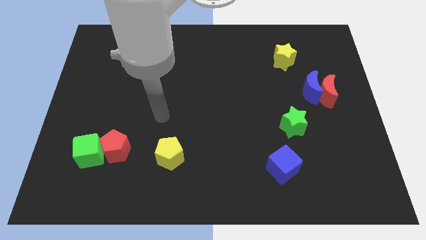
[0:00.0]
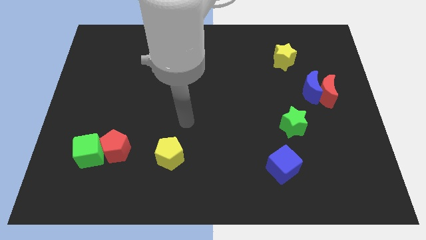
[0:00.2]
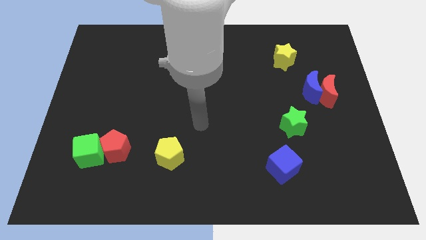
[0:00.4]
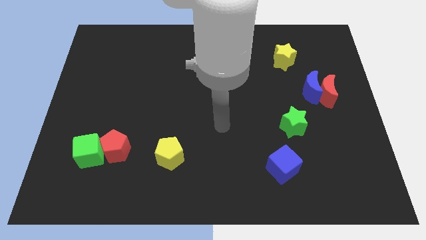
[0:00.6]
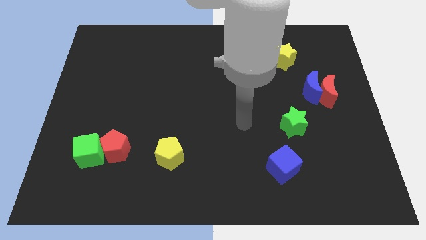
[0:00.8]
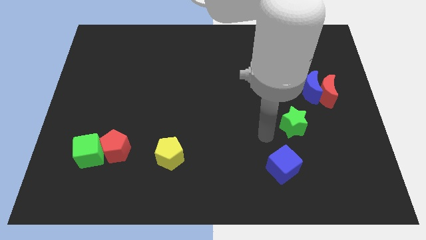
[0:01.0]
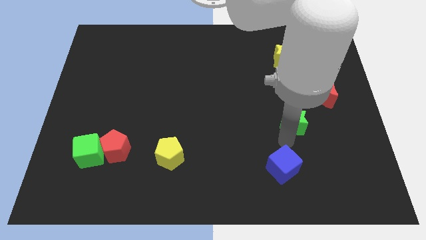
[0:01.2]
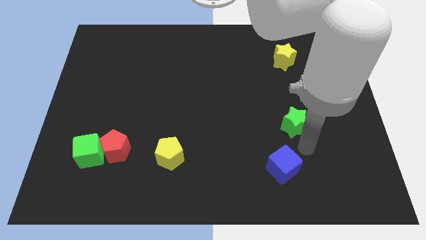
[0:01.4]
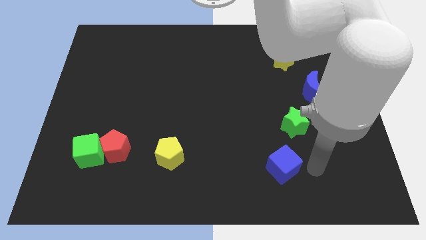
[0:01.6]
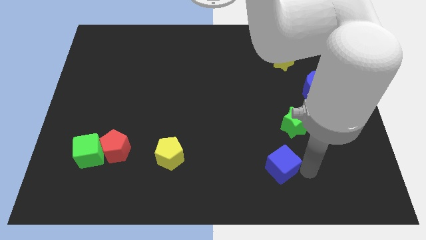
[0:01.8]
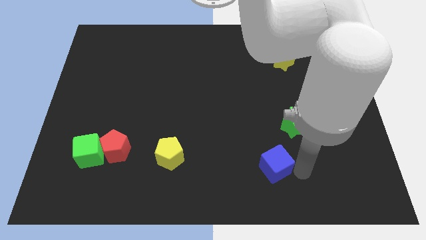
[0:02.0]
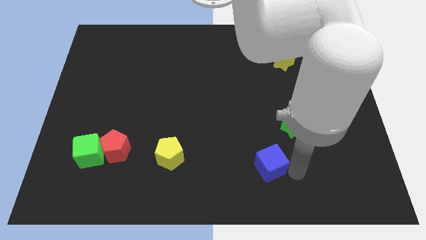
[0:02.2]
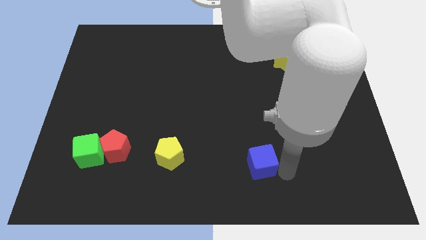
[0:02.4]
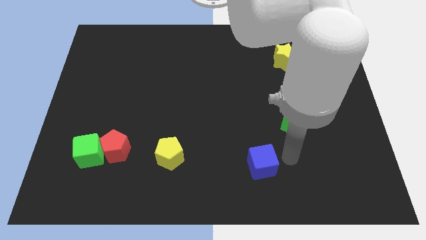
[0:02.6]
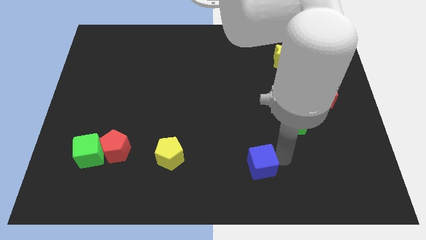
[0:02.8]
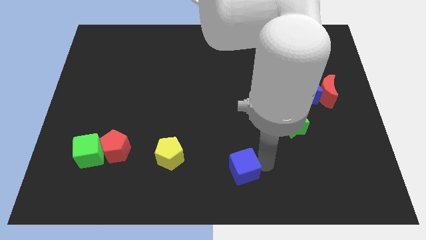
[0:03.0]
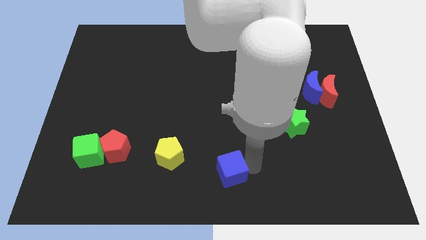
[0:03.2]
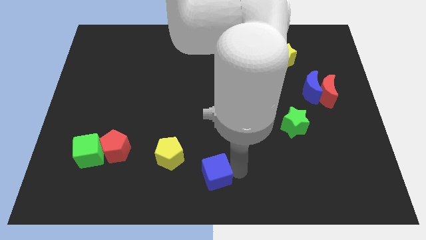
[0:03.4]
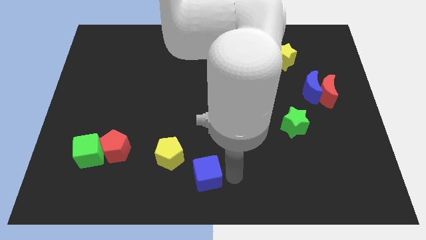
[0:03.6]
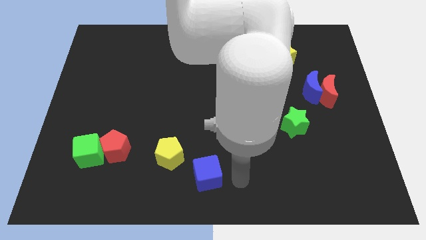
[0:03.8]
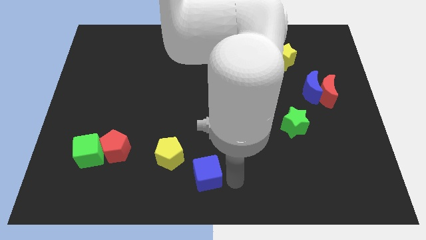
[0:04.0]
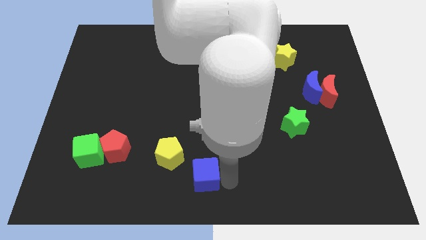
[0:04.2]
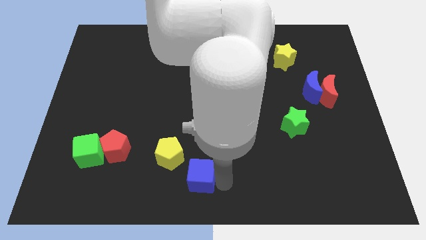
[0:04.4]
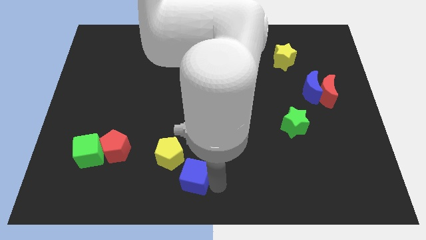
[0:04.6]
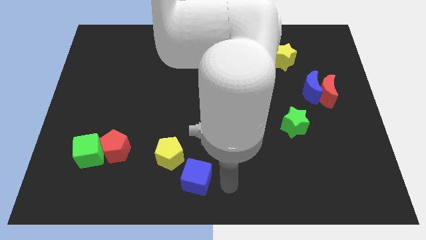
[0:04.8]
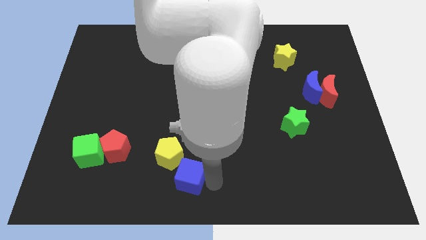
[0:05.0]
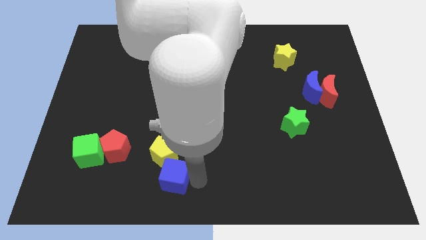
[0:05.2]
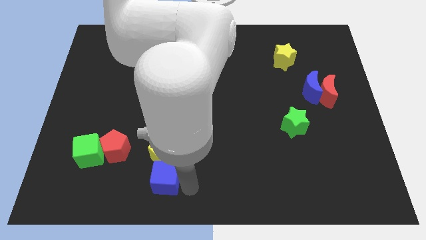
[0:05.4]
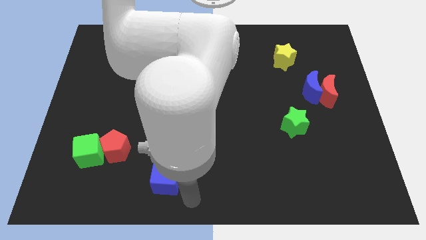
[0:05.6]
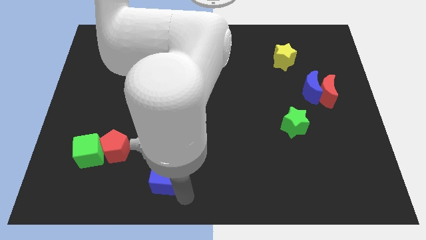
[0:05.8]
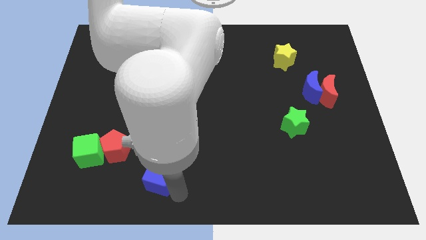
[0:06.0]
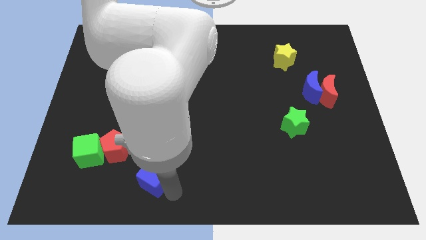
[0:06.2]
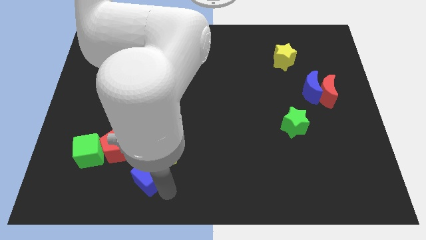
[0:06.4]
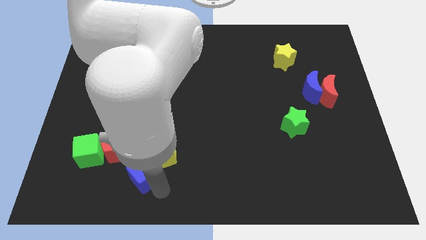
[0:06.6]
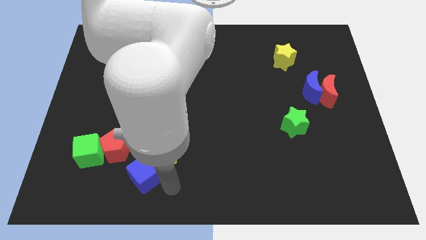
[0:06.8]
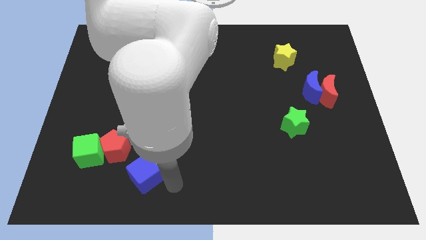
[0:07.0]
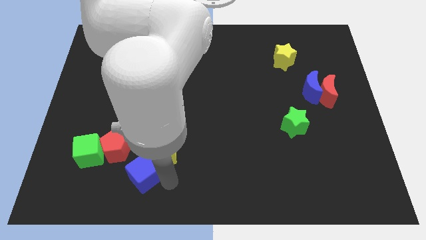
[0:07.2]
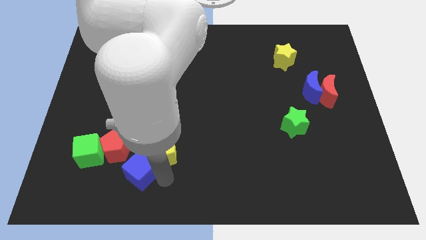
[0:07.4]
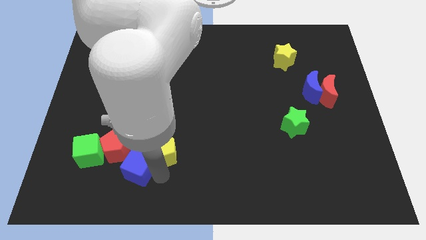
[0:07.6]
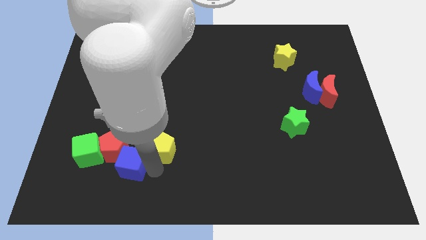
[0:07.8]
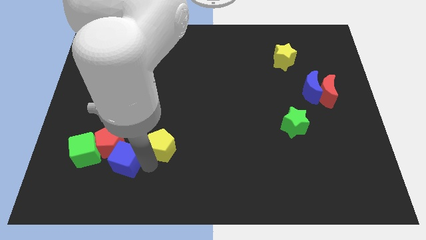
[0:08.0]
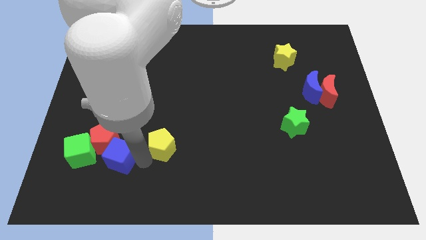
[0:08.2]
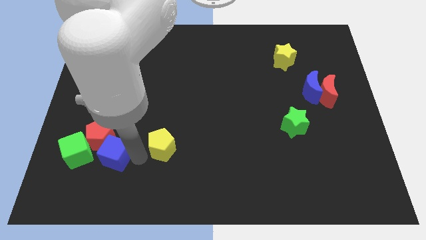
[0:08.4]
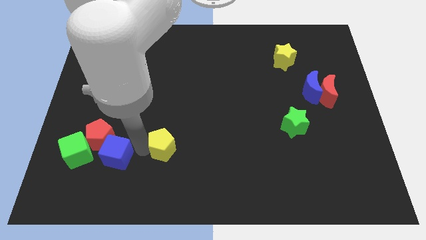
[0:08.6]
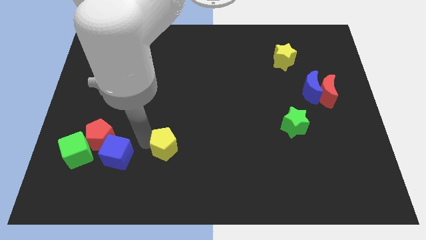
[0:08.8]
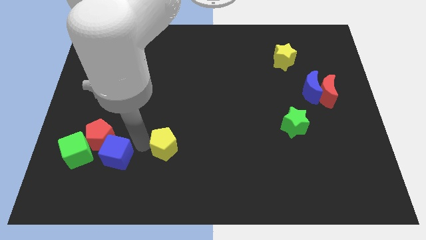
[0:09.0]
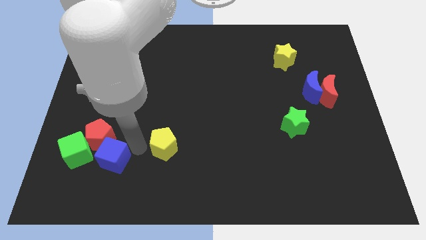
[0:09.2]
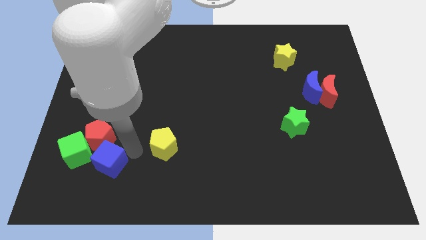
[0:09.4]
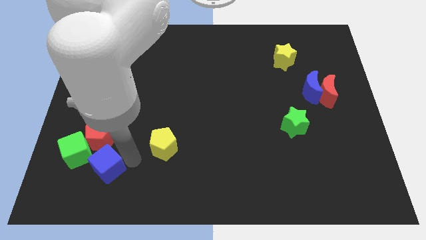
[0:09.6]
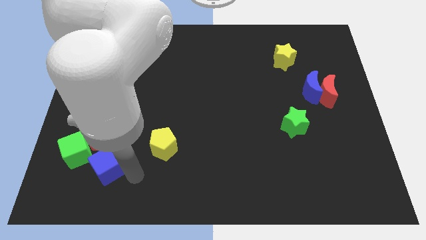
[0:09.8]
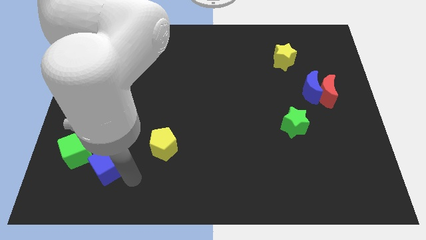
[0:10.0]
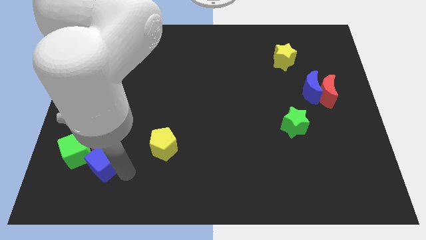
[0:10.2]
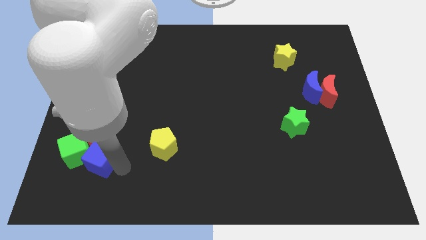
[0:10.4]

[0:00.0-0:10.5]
put the blue cube towards the green cube

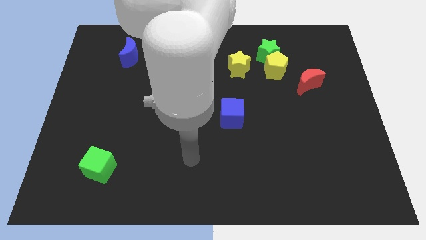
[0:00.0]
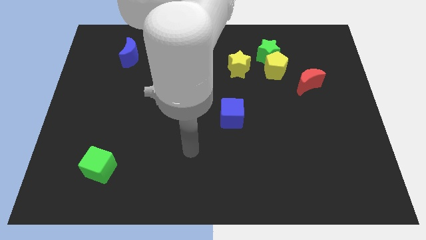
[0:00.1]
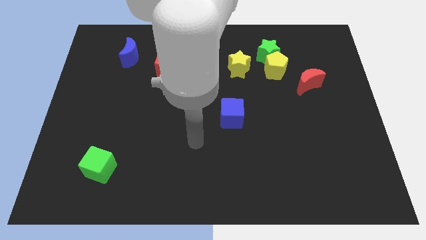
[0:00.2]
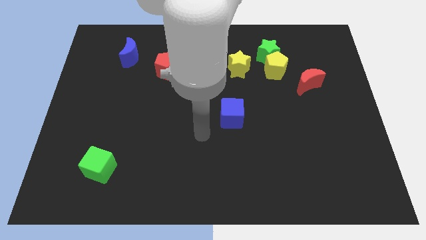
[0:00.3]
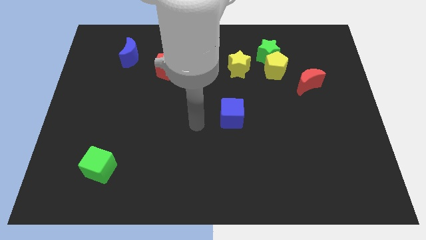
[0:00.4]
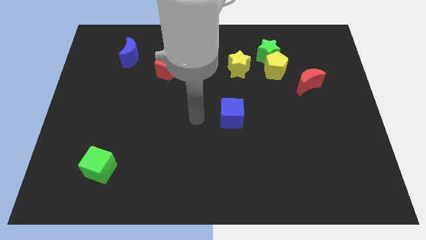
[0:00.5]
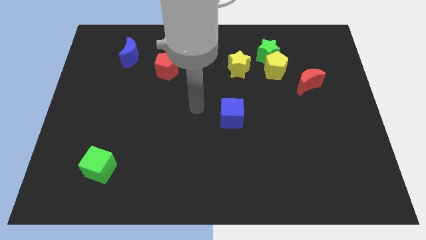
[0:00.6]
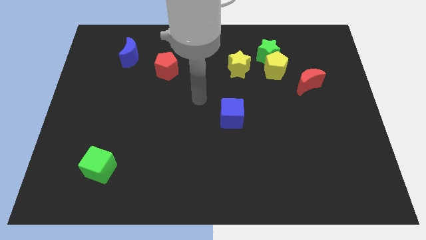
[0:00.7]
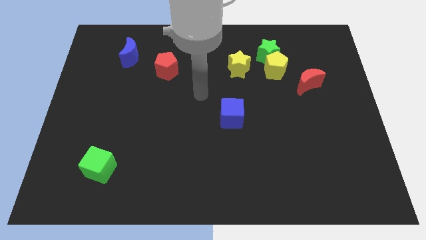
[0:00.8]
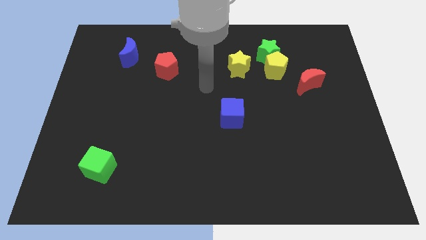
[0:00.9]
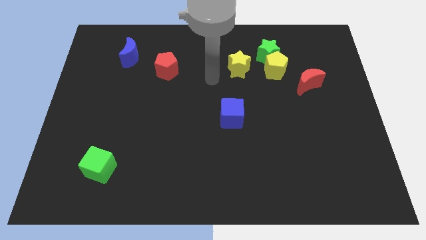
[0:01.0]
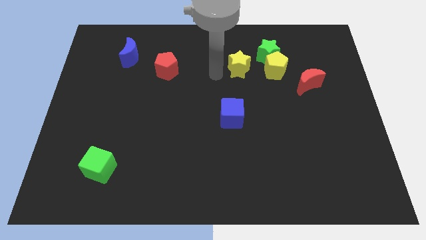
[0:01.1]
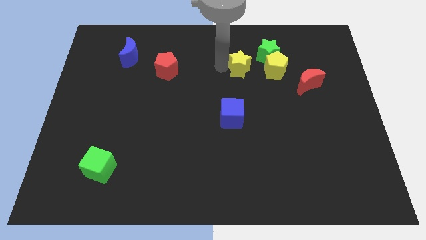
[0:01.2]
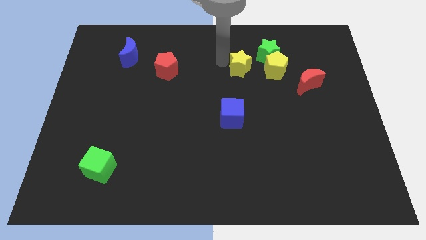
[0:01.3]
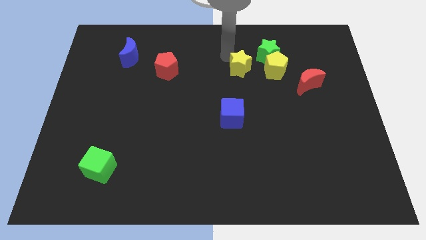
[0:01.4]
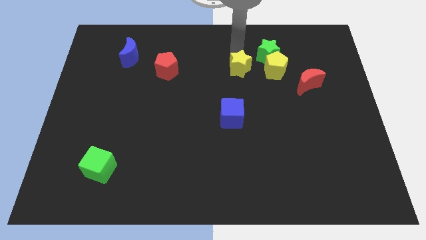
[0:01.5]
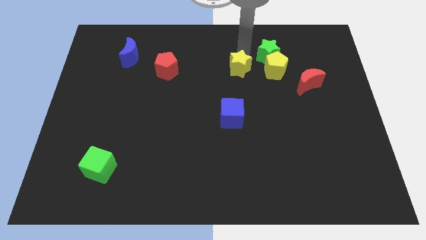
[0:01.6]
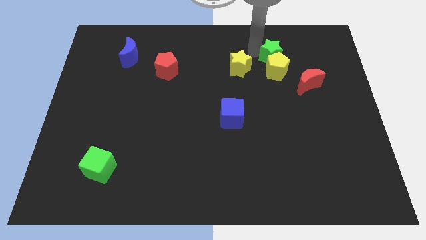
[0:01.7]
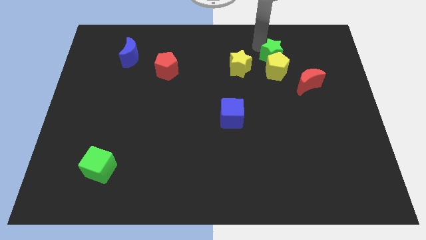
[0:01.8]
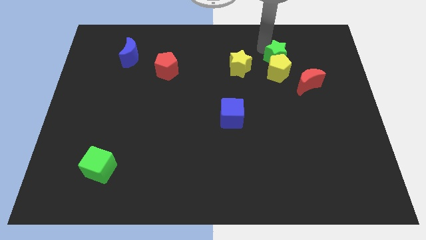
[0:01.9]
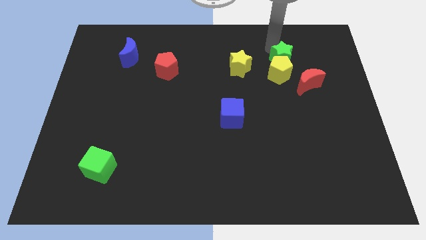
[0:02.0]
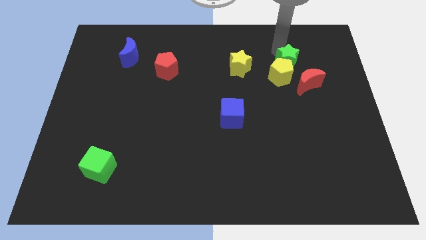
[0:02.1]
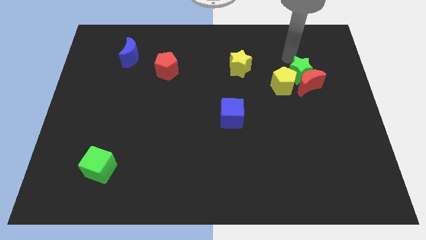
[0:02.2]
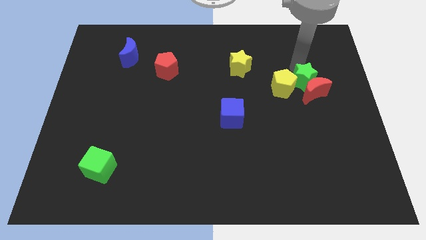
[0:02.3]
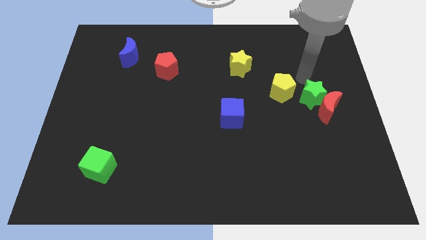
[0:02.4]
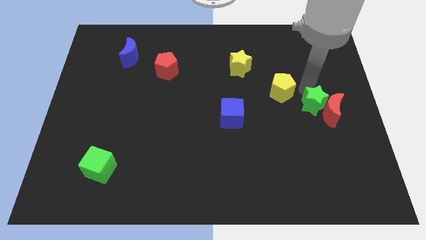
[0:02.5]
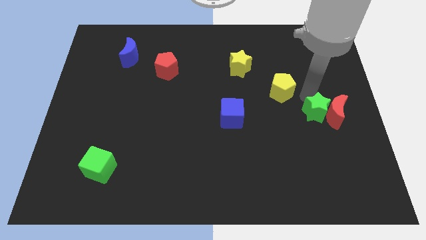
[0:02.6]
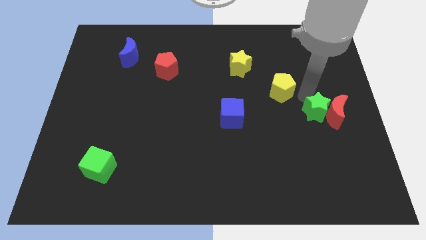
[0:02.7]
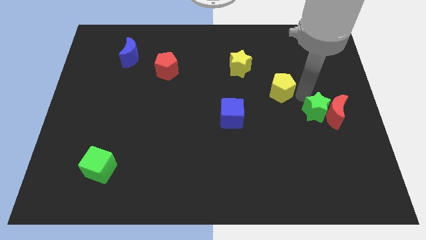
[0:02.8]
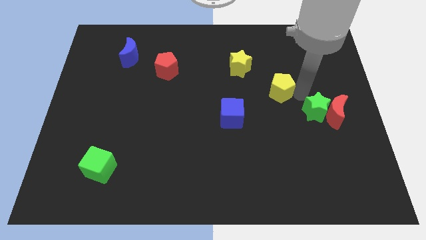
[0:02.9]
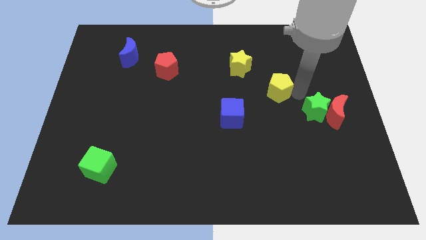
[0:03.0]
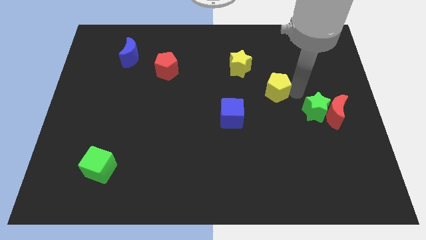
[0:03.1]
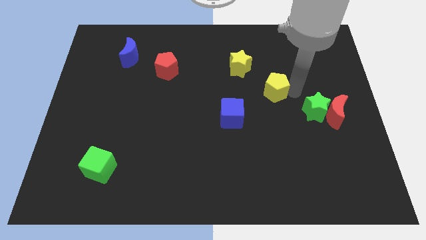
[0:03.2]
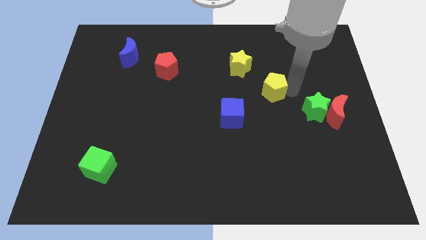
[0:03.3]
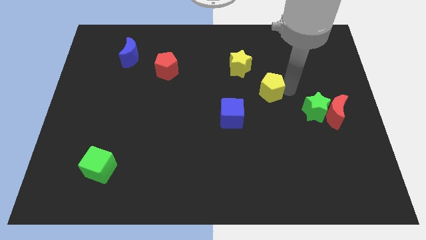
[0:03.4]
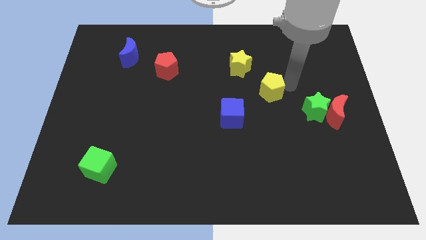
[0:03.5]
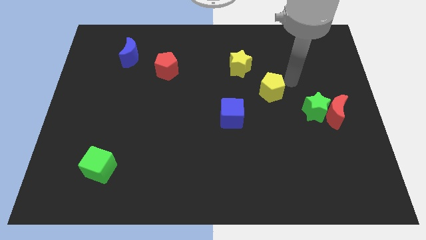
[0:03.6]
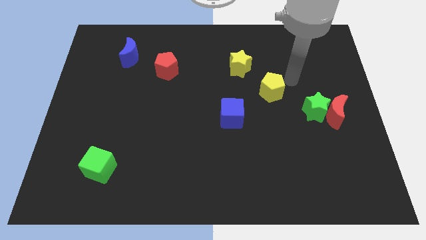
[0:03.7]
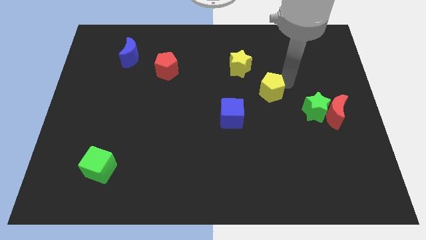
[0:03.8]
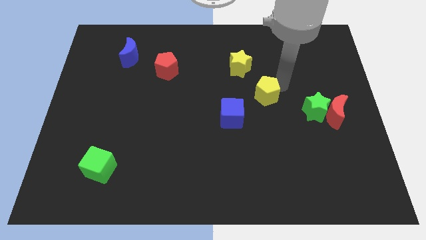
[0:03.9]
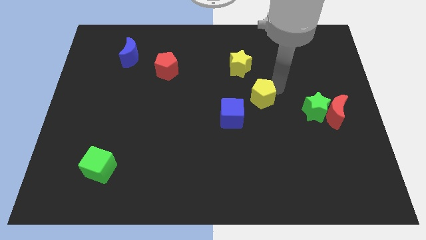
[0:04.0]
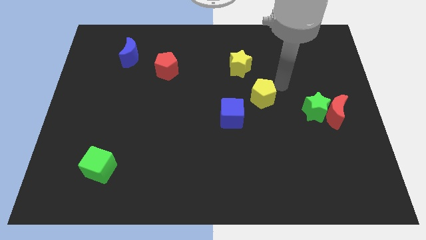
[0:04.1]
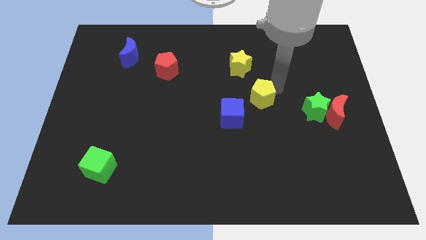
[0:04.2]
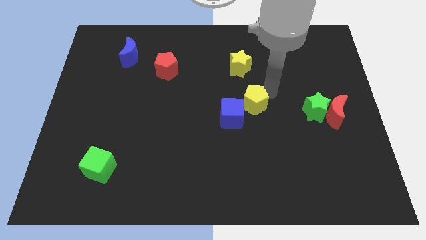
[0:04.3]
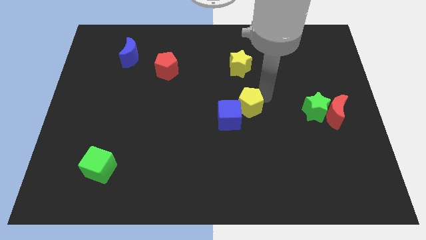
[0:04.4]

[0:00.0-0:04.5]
put the yellow pentagon towards the blue cube
